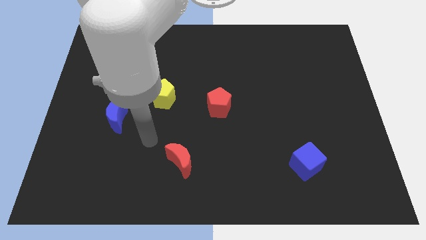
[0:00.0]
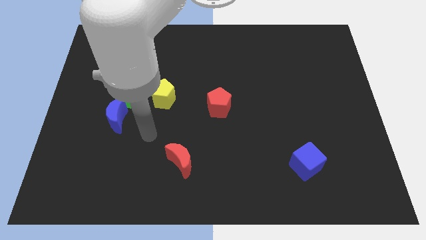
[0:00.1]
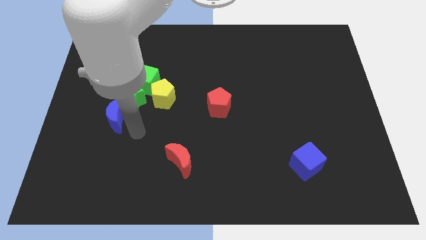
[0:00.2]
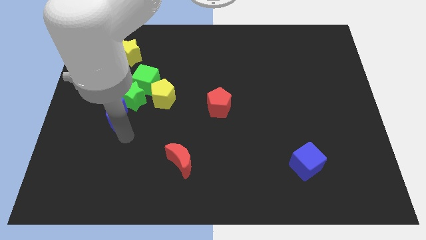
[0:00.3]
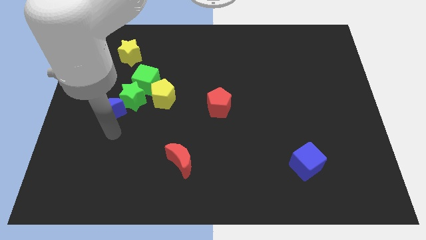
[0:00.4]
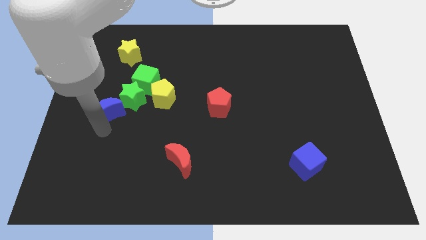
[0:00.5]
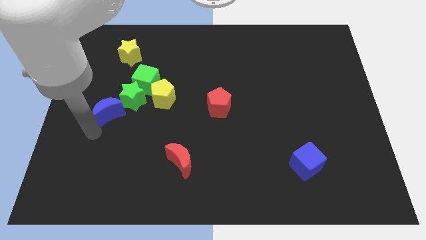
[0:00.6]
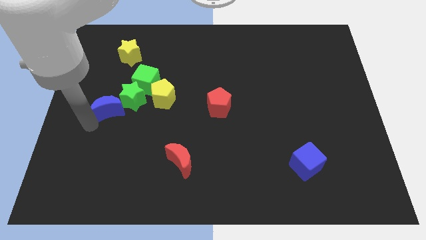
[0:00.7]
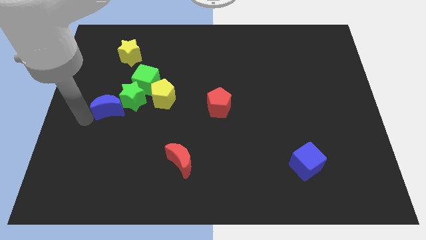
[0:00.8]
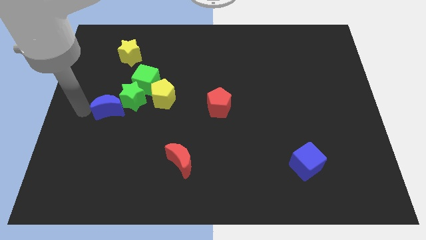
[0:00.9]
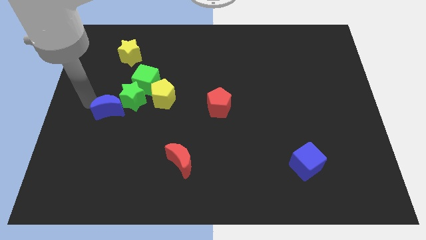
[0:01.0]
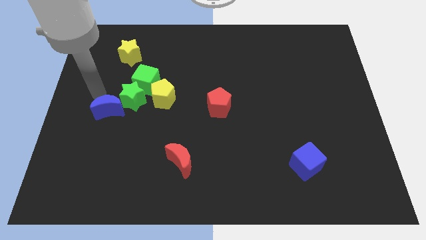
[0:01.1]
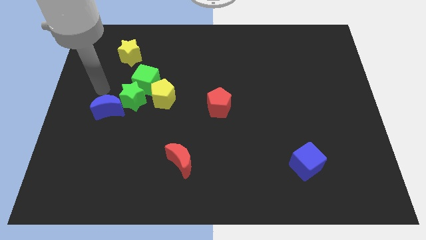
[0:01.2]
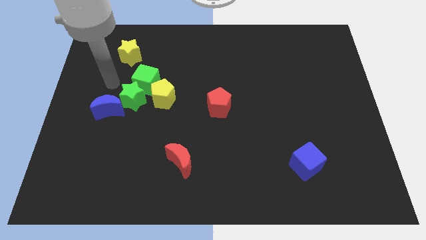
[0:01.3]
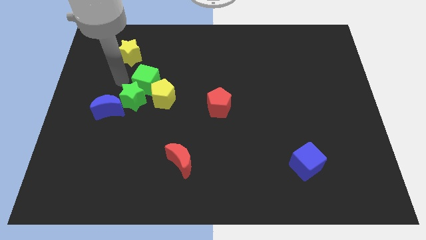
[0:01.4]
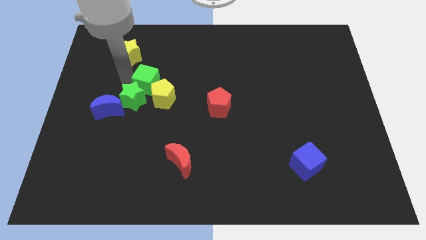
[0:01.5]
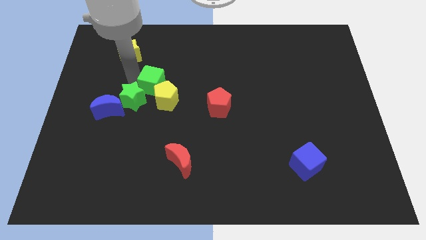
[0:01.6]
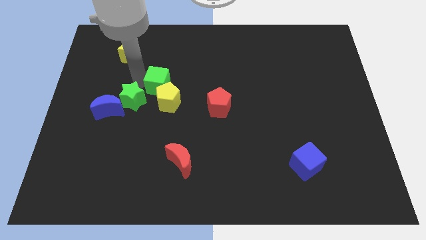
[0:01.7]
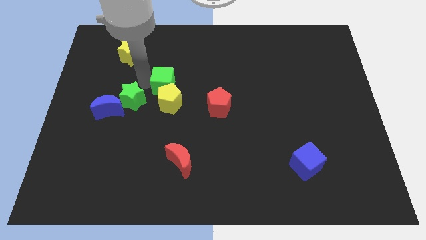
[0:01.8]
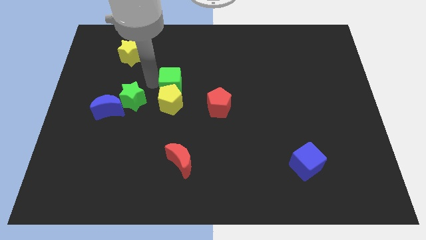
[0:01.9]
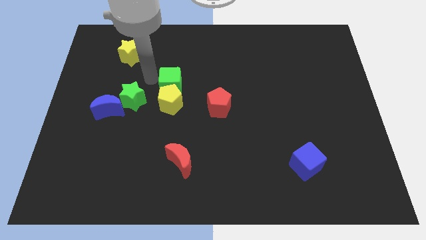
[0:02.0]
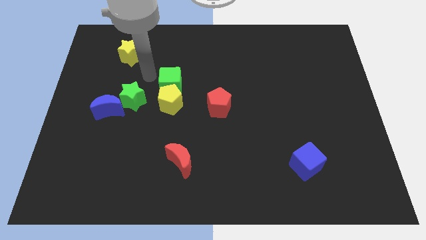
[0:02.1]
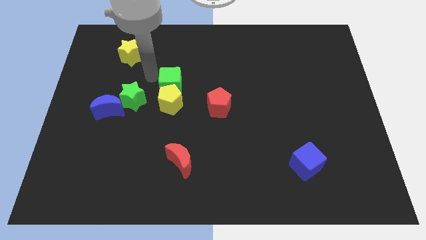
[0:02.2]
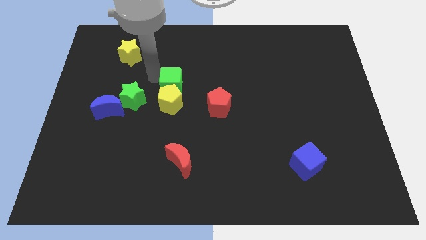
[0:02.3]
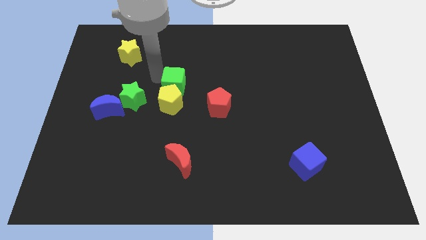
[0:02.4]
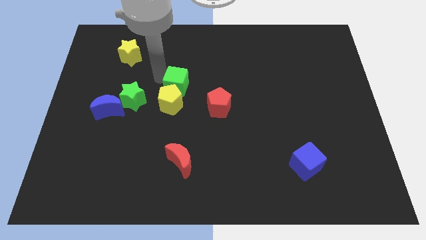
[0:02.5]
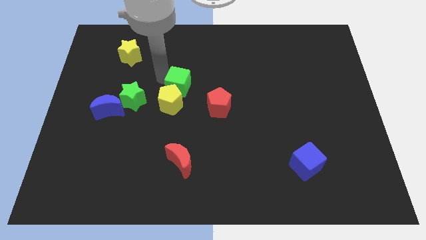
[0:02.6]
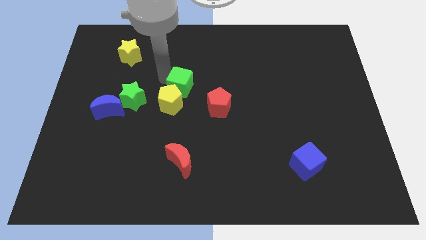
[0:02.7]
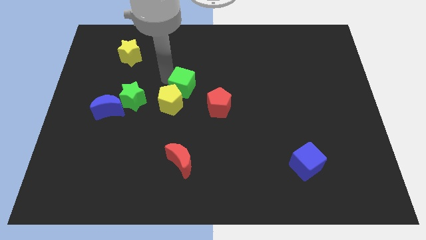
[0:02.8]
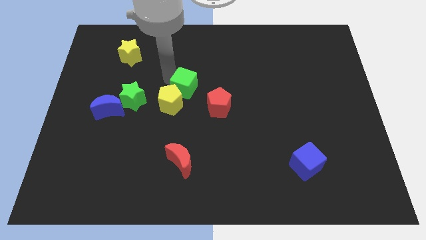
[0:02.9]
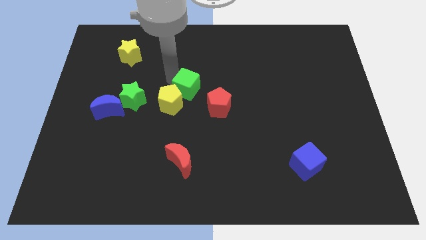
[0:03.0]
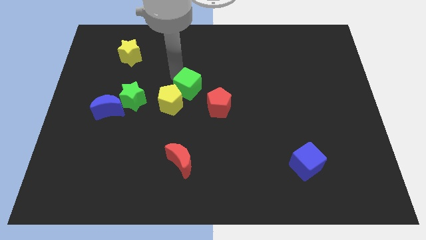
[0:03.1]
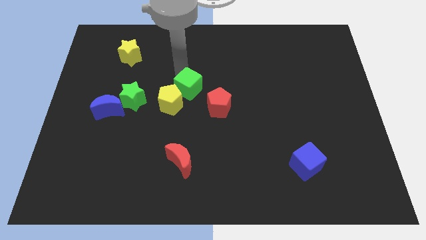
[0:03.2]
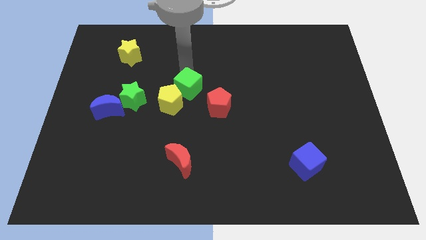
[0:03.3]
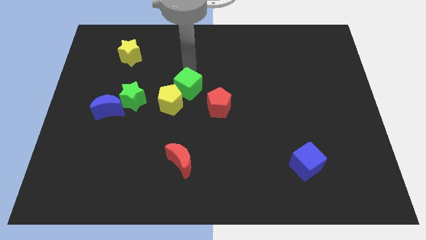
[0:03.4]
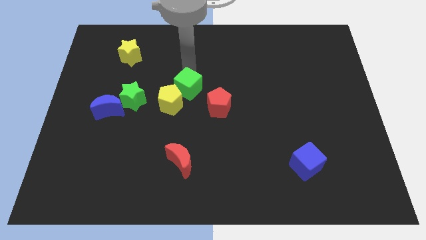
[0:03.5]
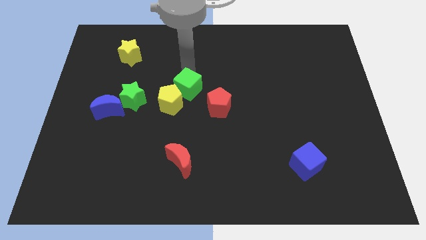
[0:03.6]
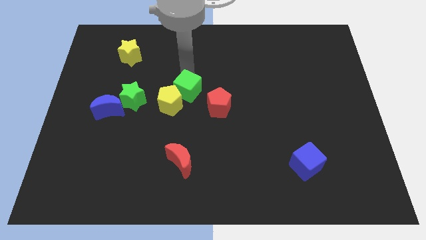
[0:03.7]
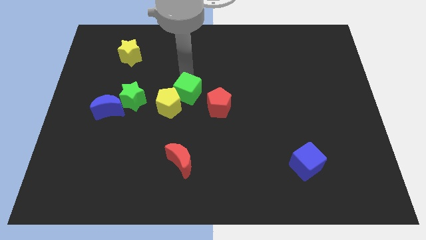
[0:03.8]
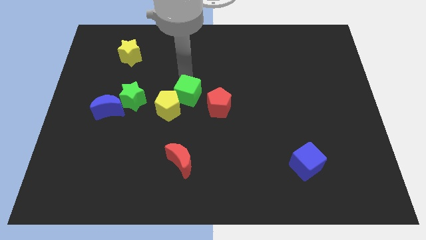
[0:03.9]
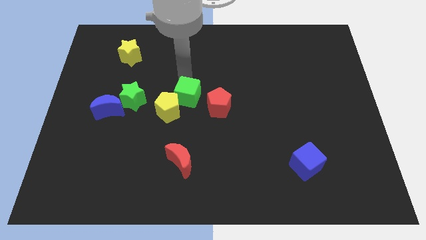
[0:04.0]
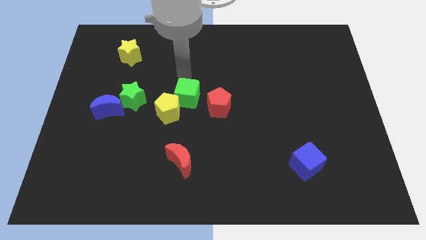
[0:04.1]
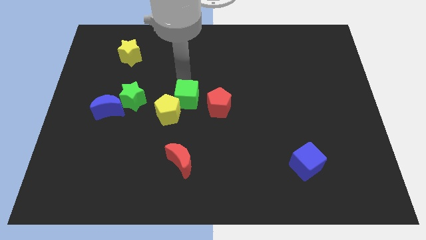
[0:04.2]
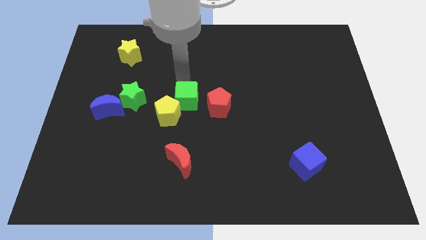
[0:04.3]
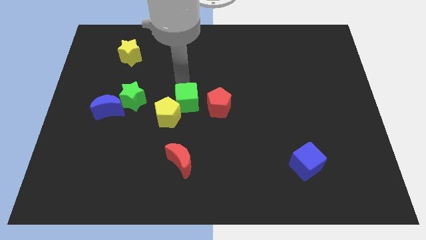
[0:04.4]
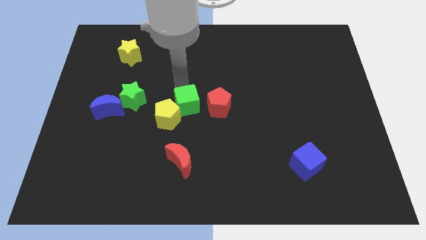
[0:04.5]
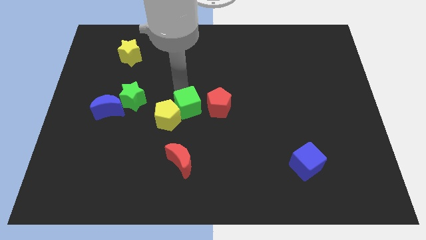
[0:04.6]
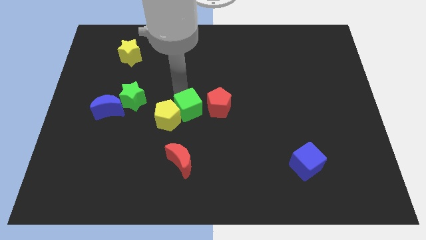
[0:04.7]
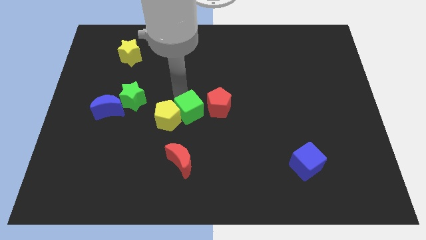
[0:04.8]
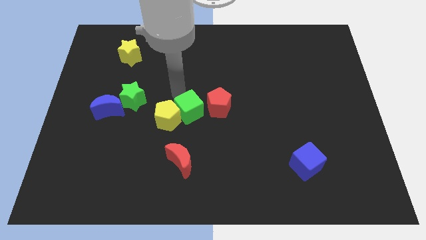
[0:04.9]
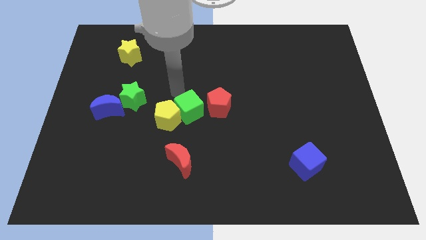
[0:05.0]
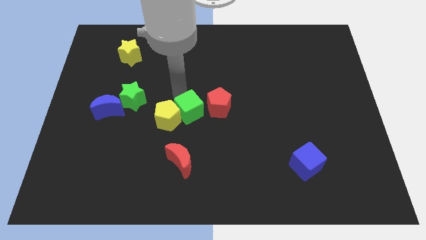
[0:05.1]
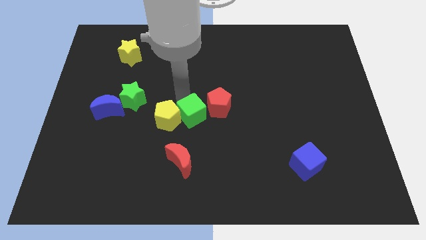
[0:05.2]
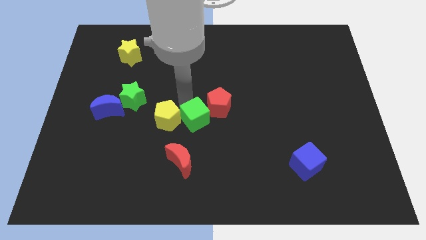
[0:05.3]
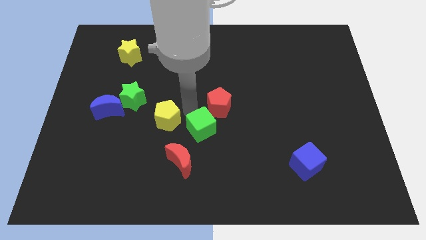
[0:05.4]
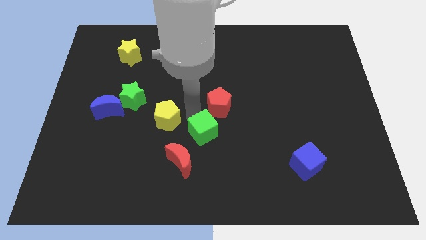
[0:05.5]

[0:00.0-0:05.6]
slide the green cube downwards and then to the right

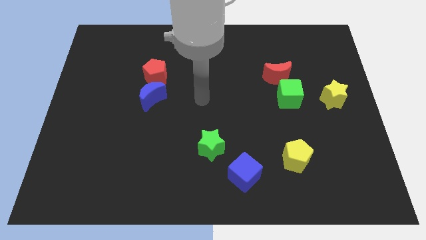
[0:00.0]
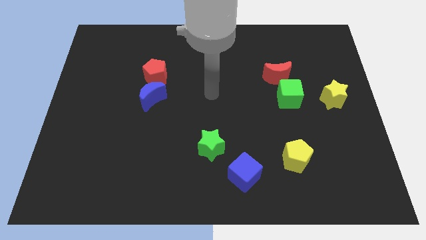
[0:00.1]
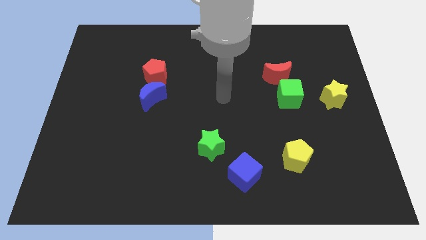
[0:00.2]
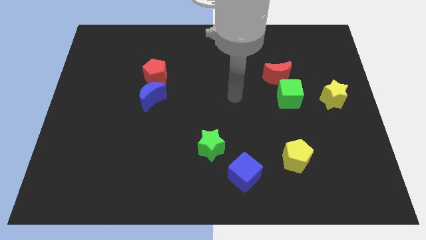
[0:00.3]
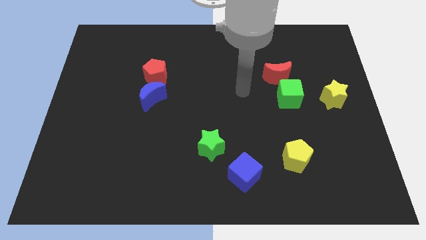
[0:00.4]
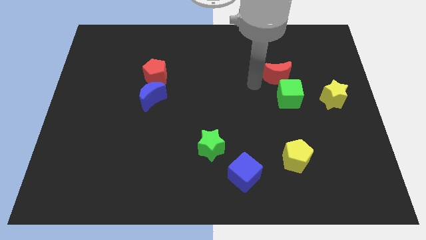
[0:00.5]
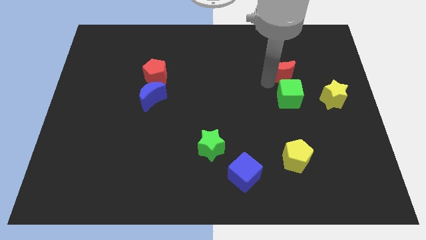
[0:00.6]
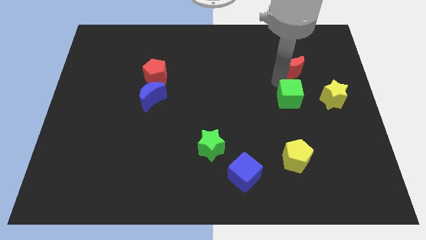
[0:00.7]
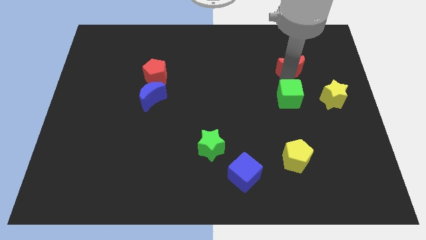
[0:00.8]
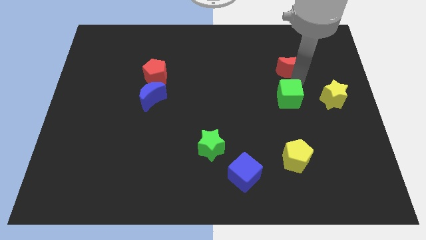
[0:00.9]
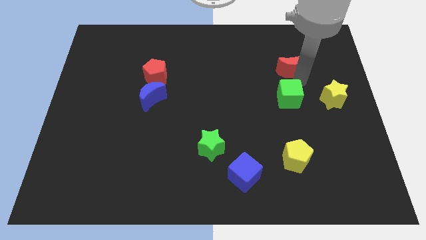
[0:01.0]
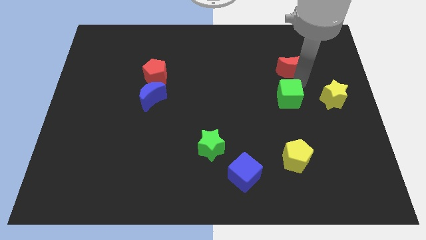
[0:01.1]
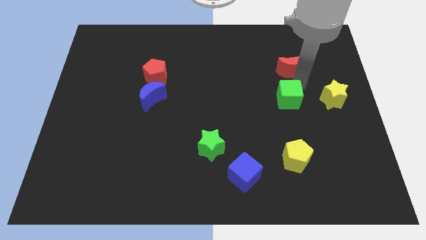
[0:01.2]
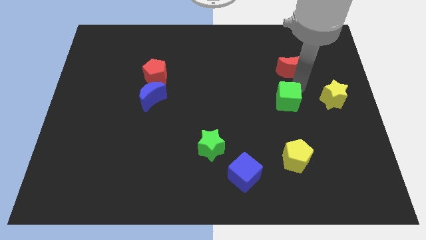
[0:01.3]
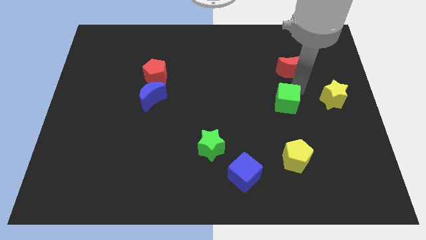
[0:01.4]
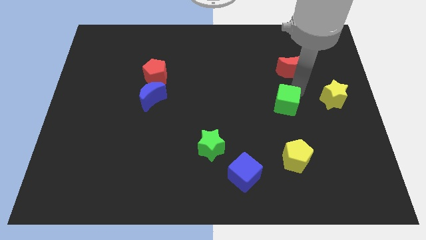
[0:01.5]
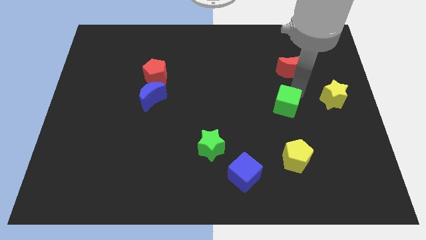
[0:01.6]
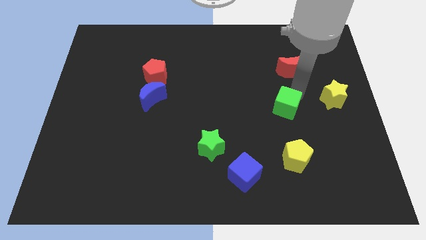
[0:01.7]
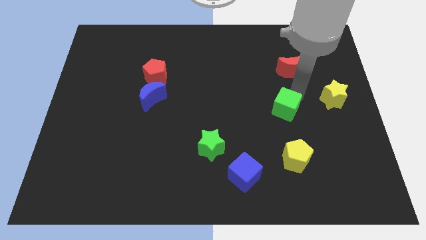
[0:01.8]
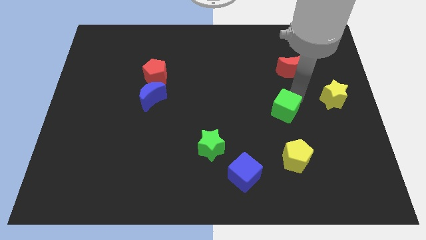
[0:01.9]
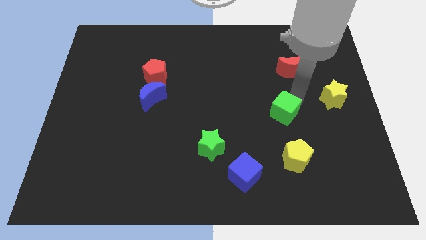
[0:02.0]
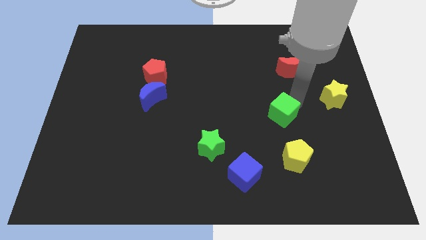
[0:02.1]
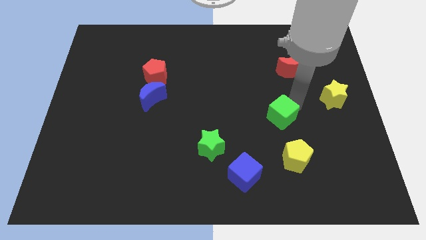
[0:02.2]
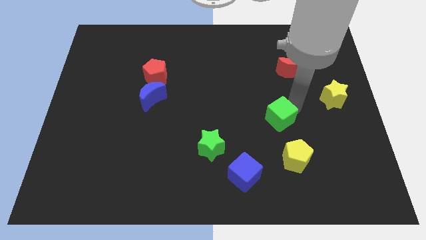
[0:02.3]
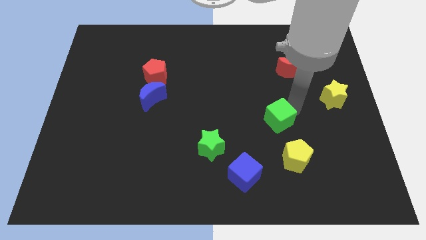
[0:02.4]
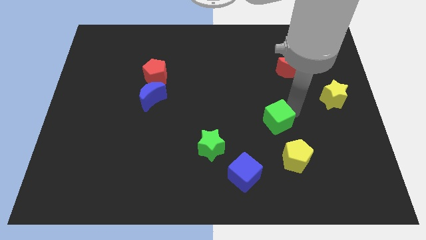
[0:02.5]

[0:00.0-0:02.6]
slide the green cube down and then left somewhat
